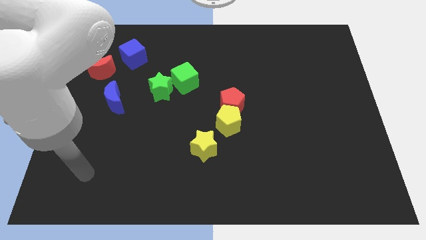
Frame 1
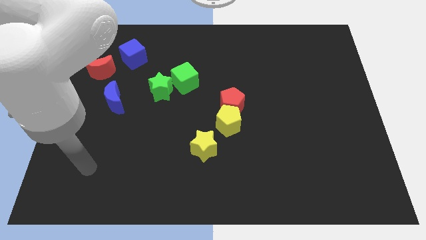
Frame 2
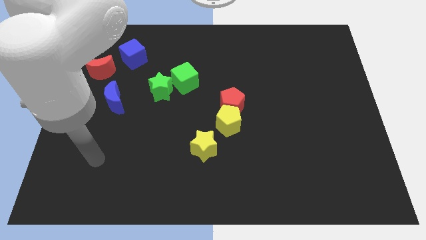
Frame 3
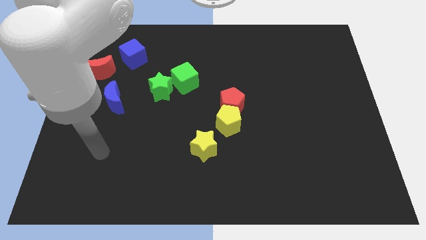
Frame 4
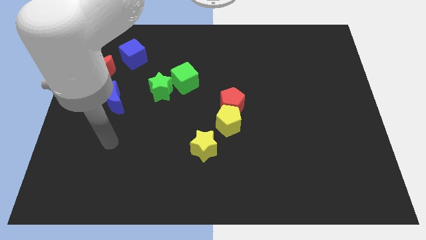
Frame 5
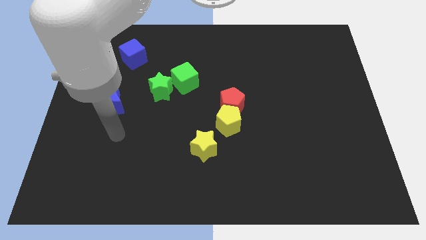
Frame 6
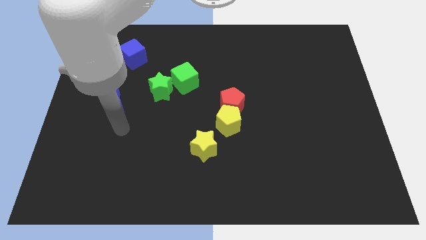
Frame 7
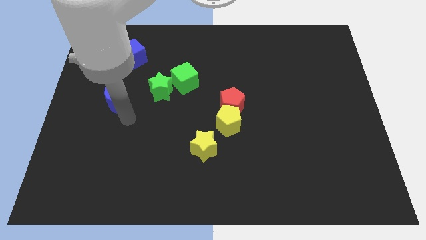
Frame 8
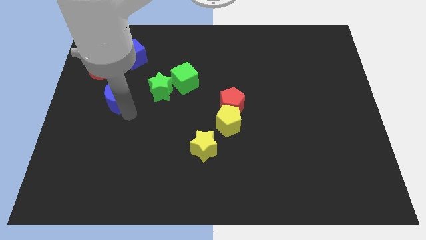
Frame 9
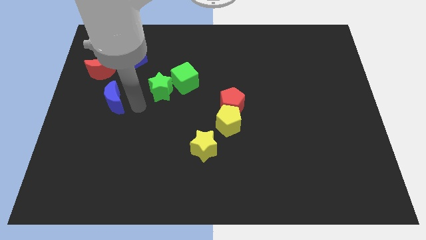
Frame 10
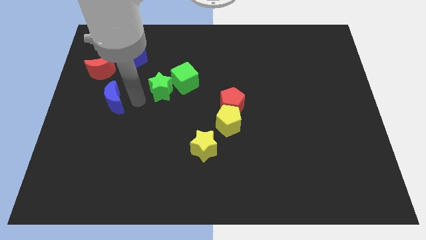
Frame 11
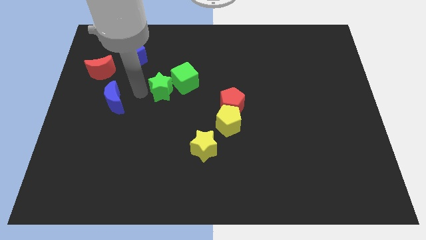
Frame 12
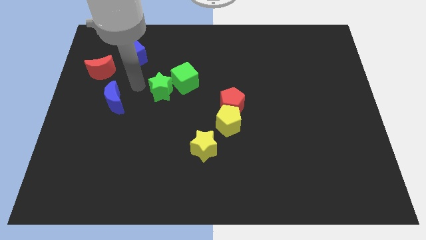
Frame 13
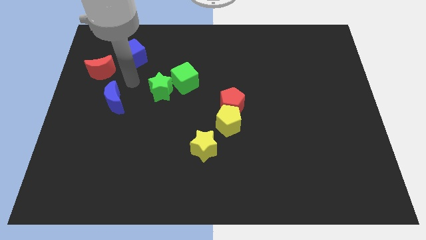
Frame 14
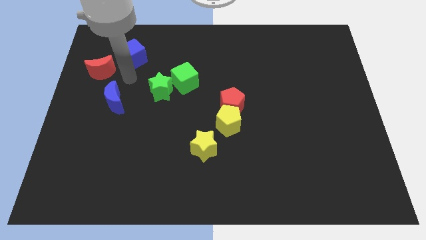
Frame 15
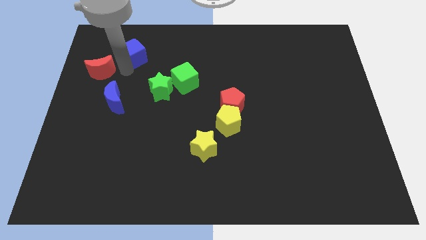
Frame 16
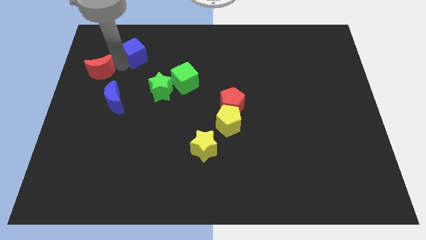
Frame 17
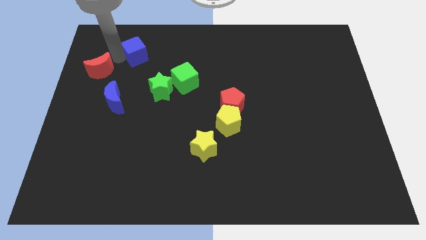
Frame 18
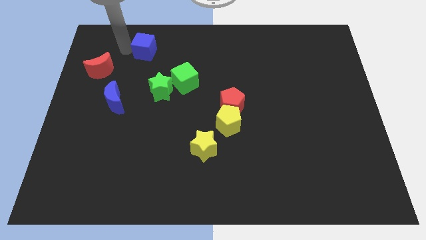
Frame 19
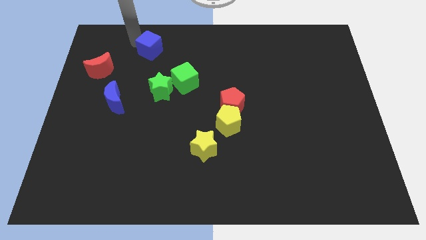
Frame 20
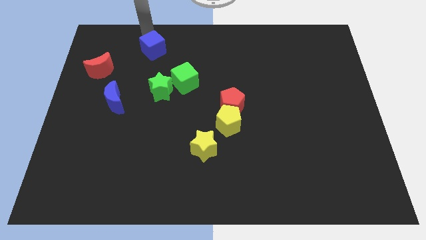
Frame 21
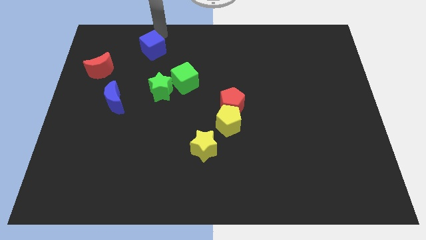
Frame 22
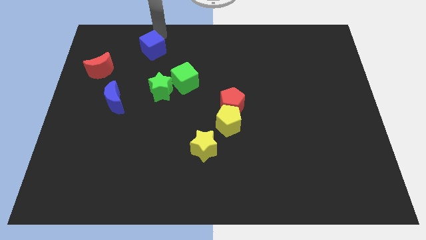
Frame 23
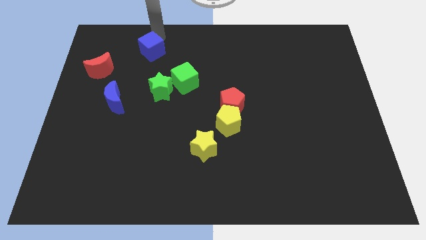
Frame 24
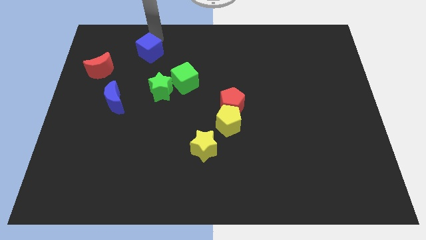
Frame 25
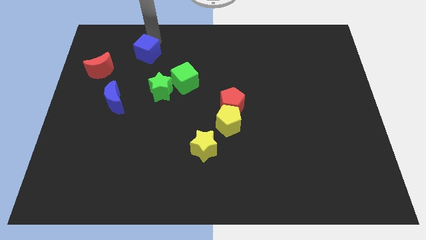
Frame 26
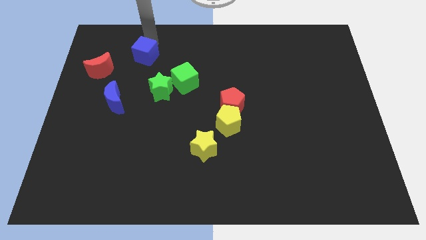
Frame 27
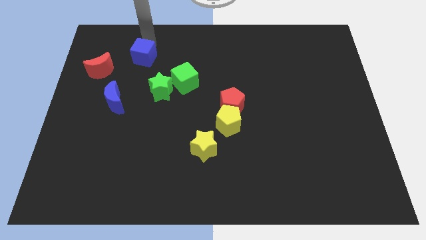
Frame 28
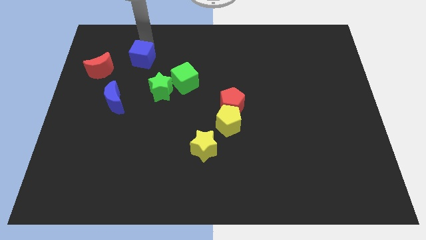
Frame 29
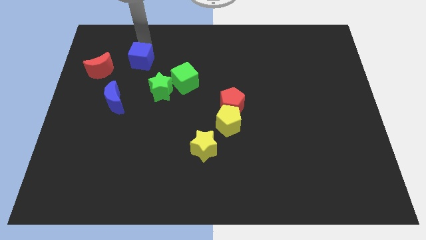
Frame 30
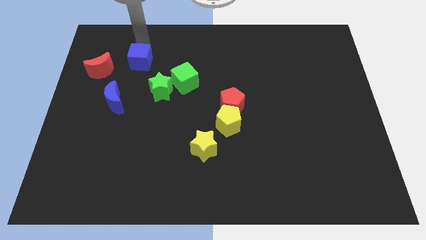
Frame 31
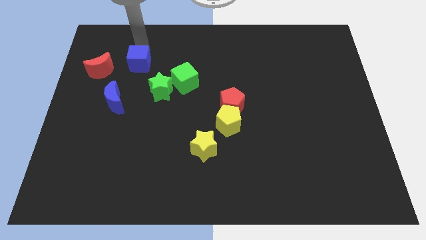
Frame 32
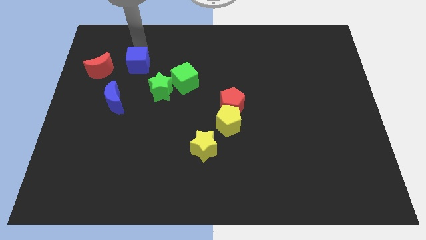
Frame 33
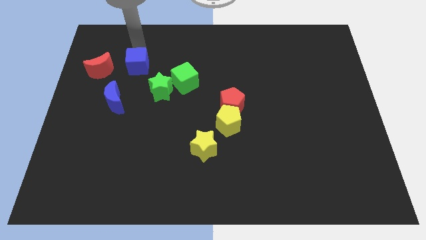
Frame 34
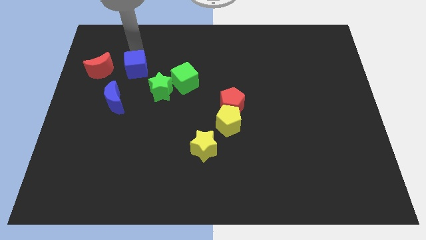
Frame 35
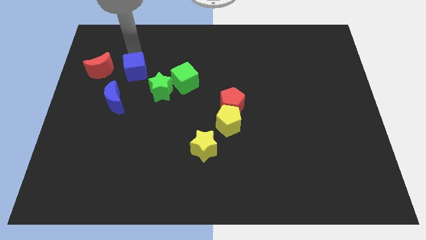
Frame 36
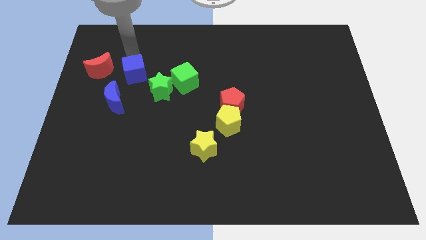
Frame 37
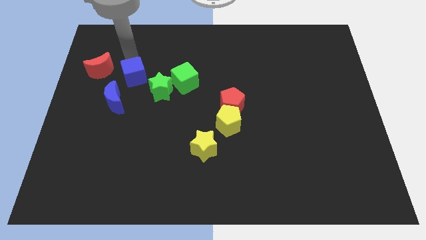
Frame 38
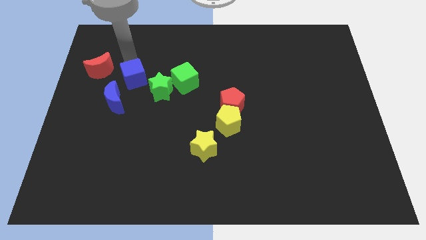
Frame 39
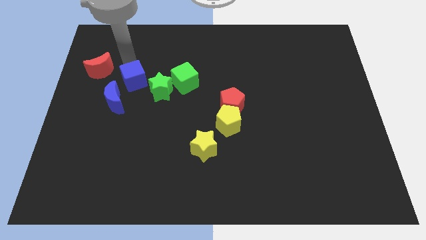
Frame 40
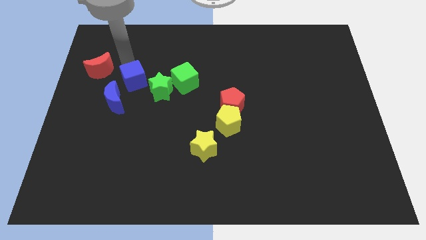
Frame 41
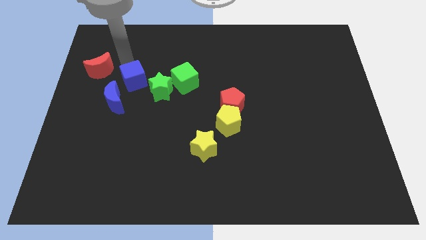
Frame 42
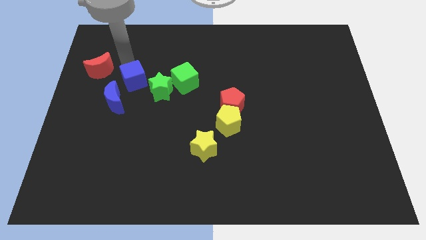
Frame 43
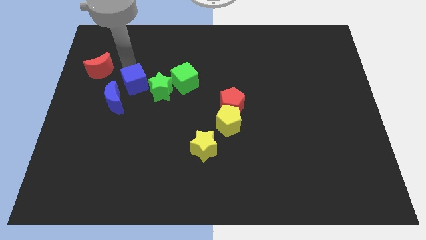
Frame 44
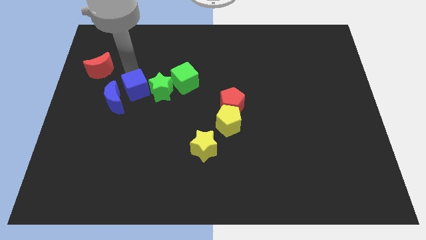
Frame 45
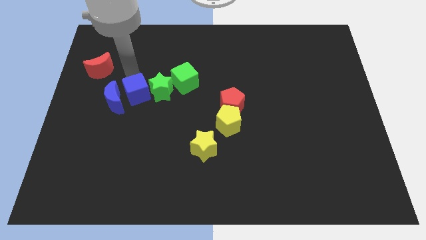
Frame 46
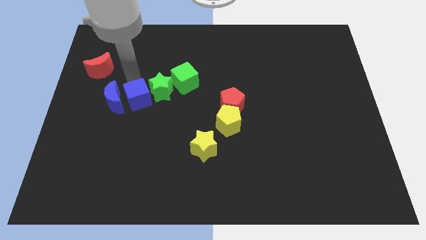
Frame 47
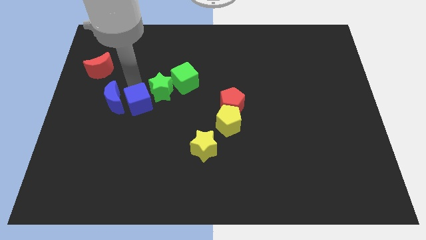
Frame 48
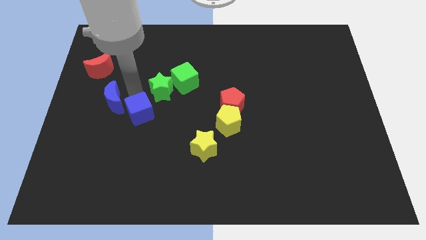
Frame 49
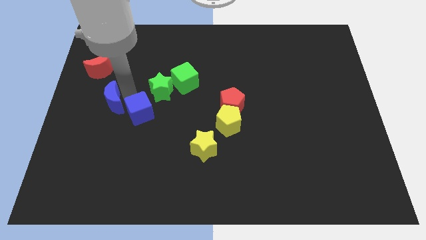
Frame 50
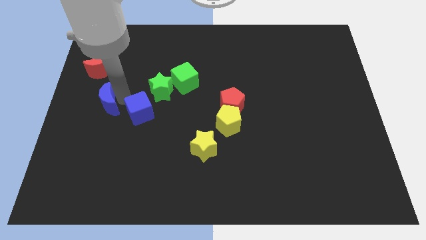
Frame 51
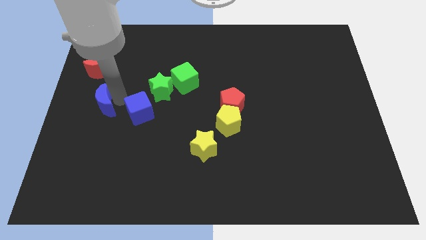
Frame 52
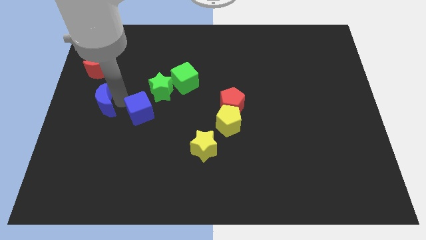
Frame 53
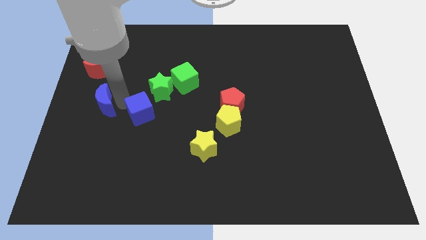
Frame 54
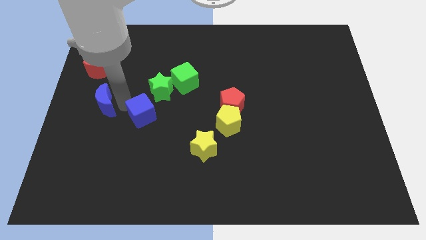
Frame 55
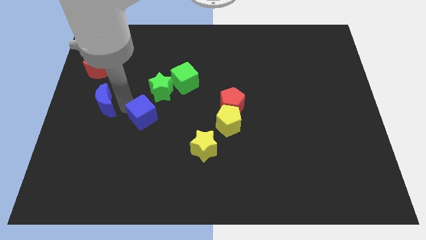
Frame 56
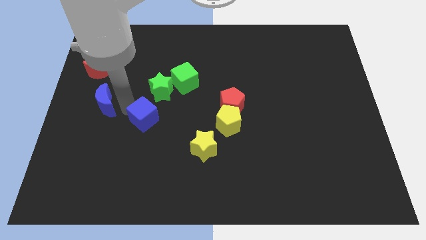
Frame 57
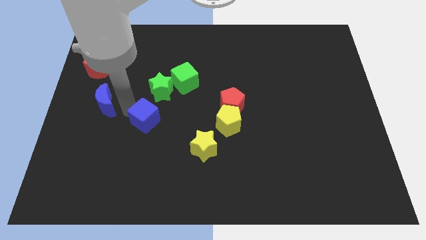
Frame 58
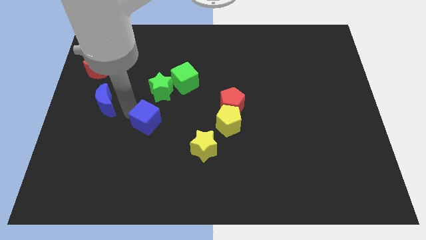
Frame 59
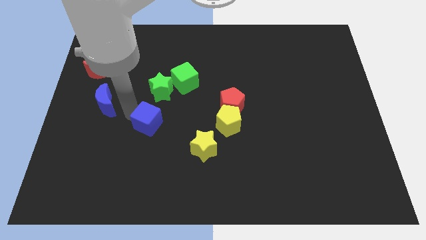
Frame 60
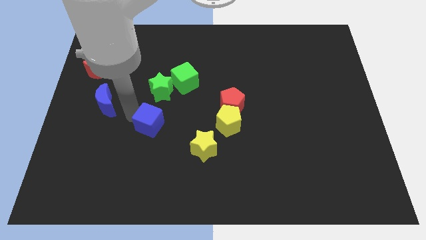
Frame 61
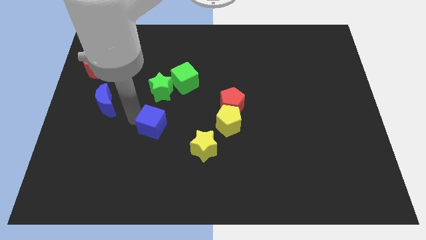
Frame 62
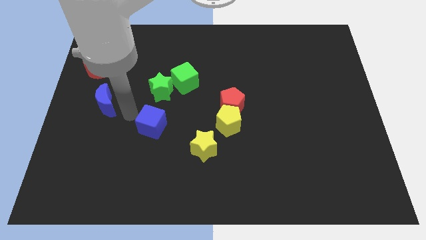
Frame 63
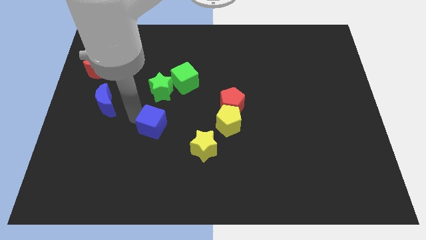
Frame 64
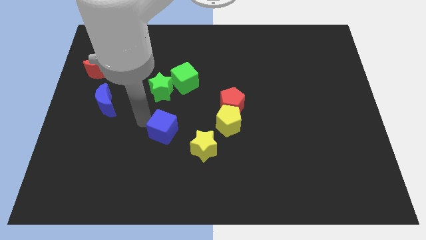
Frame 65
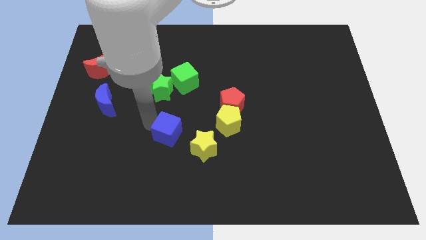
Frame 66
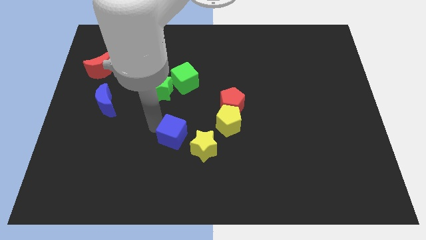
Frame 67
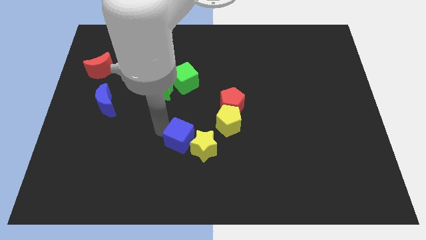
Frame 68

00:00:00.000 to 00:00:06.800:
push the blue cube to the yellow star

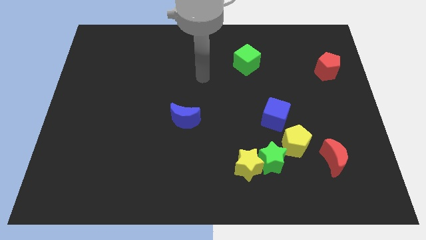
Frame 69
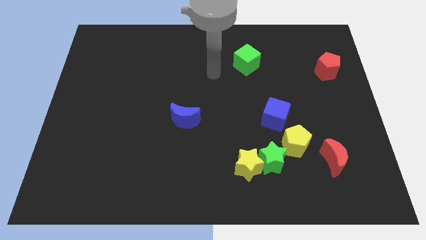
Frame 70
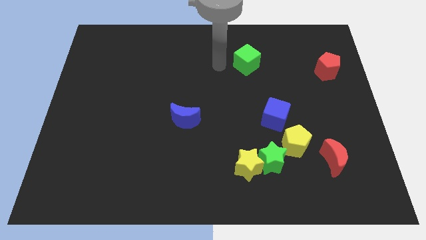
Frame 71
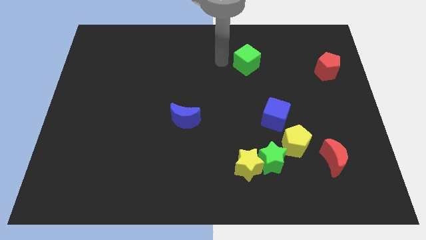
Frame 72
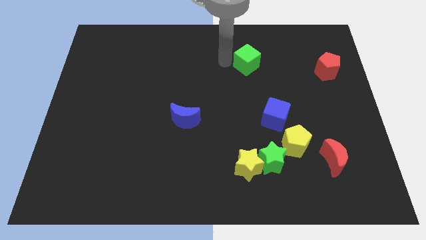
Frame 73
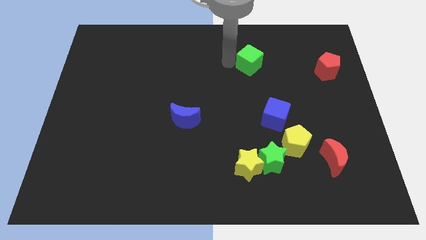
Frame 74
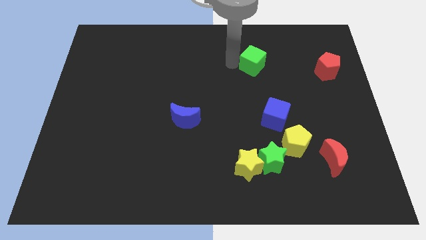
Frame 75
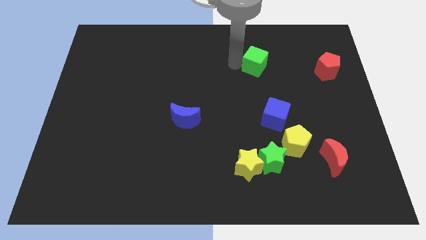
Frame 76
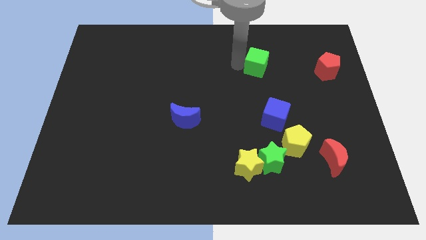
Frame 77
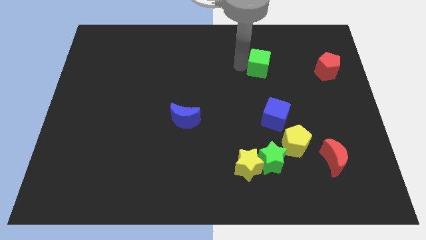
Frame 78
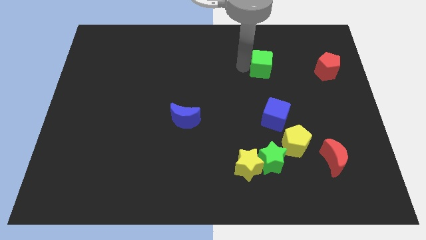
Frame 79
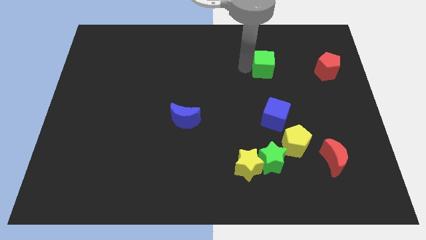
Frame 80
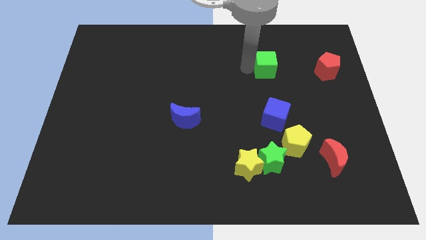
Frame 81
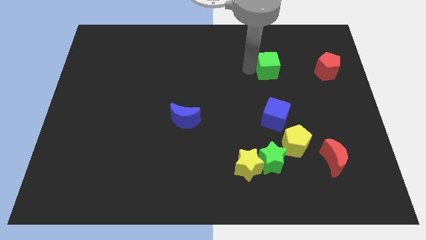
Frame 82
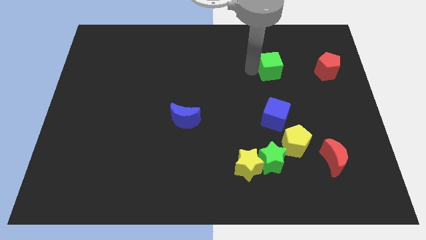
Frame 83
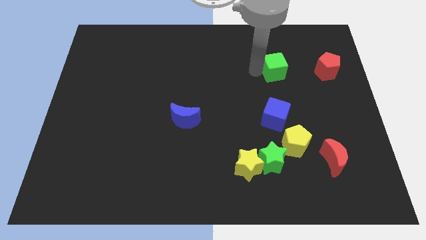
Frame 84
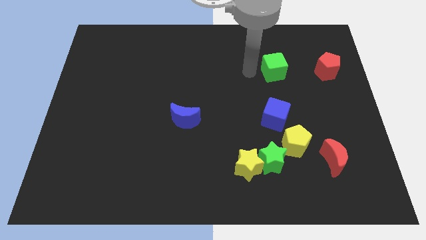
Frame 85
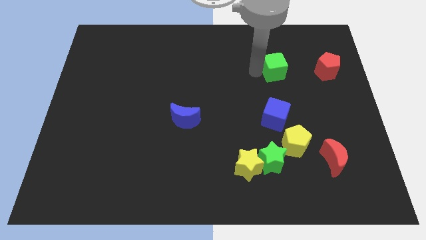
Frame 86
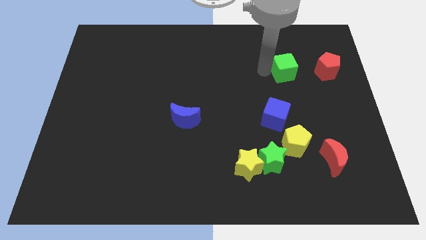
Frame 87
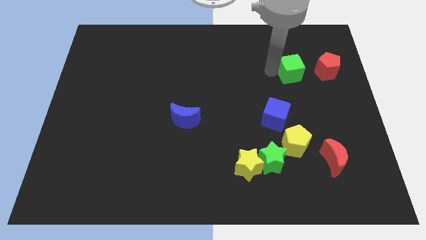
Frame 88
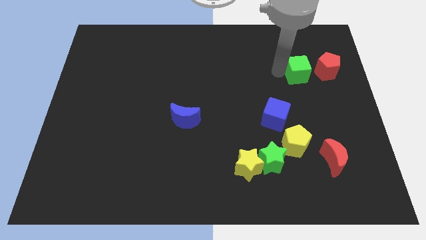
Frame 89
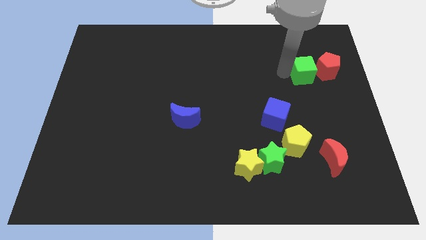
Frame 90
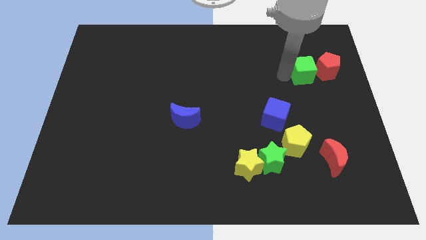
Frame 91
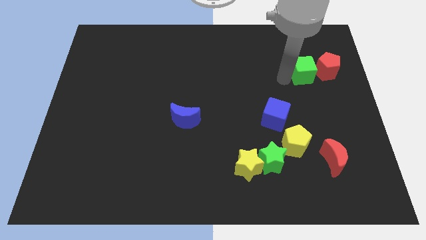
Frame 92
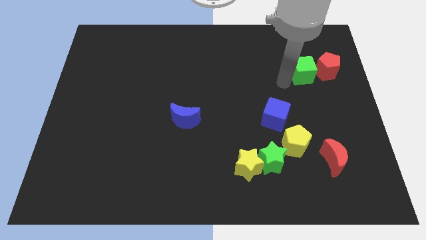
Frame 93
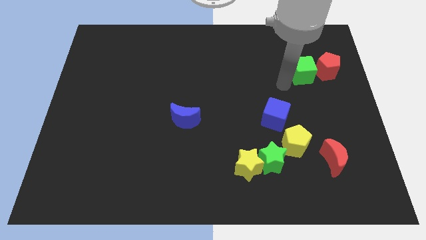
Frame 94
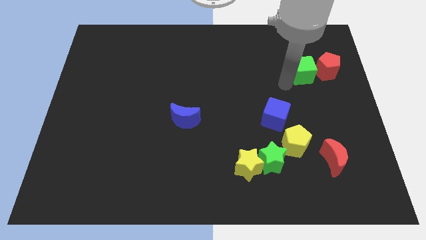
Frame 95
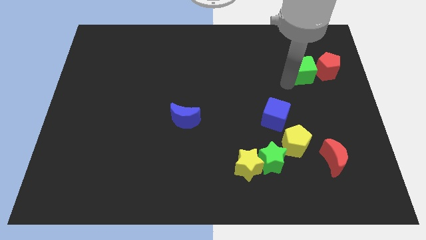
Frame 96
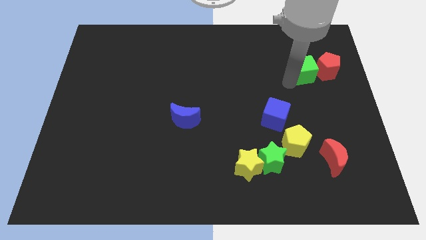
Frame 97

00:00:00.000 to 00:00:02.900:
put the green cube close to the red pentagon
